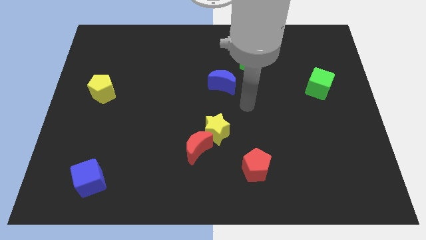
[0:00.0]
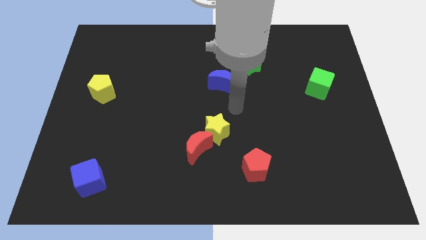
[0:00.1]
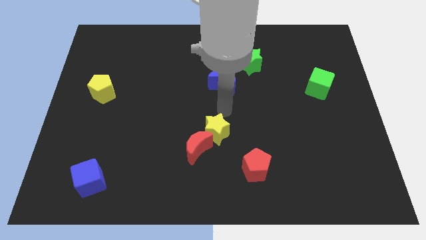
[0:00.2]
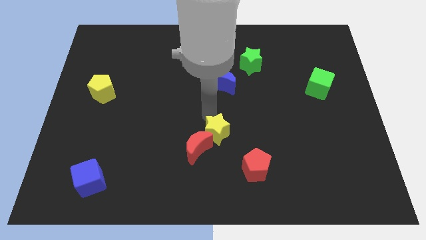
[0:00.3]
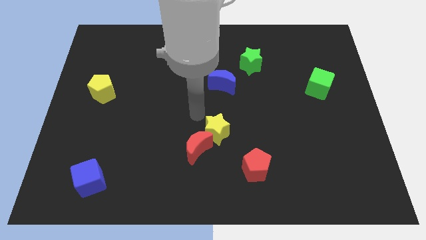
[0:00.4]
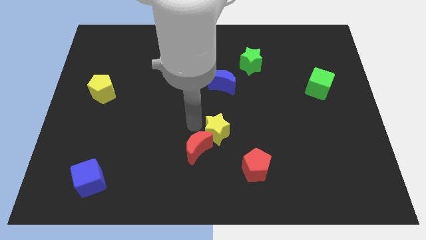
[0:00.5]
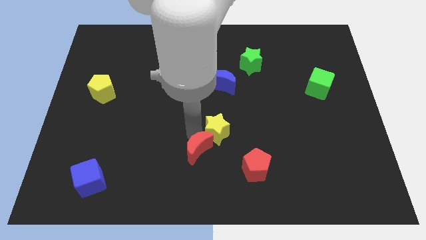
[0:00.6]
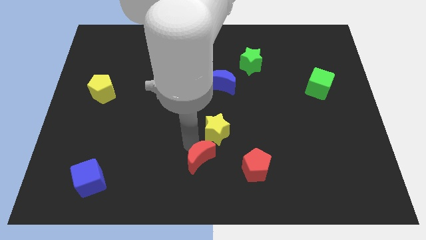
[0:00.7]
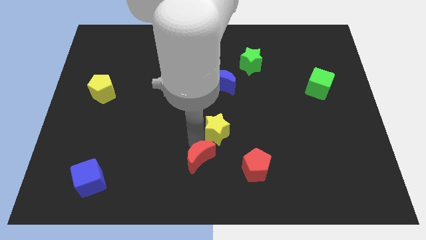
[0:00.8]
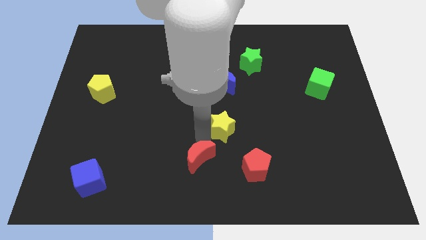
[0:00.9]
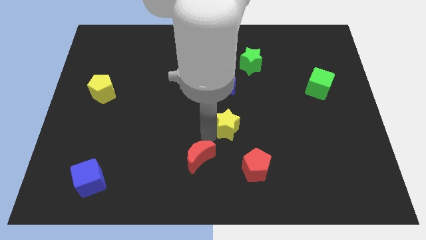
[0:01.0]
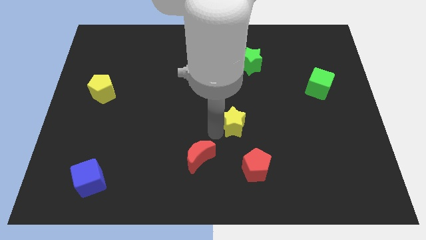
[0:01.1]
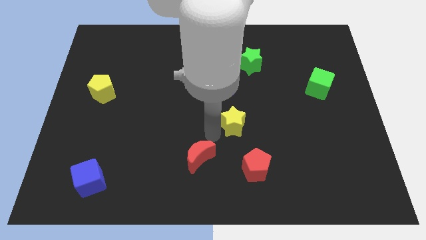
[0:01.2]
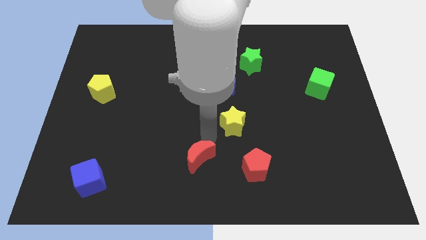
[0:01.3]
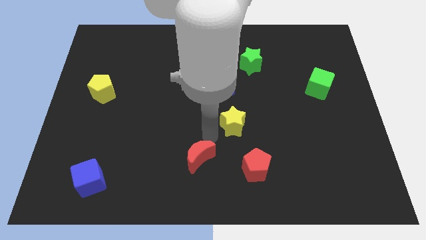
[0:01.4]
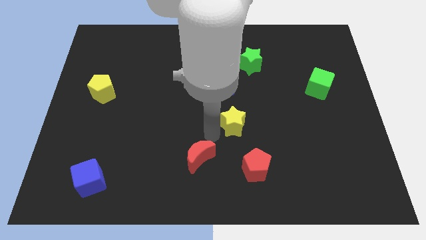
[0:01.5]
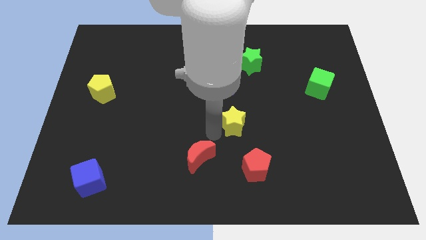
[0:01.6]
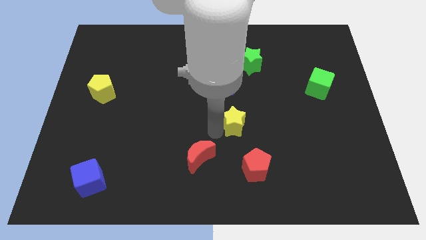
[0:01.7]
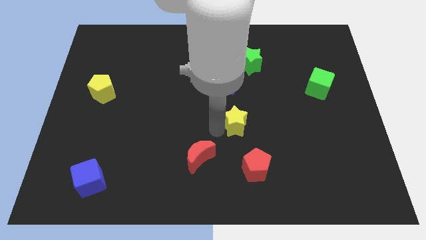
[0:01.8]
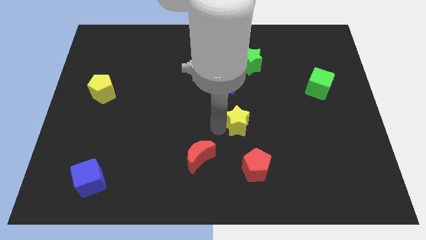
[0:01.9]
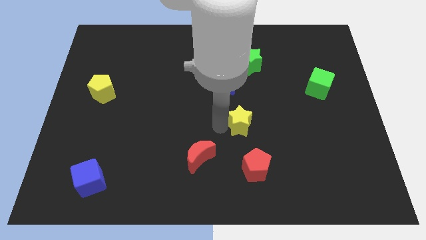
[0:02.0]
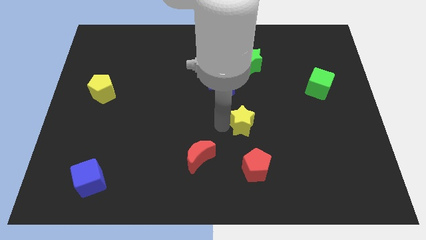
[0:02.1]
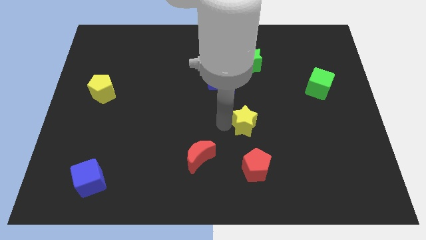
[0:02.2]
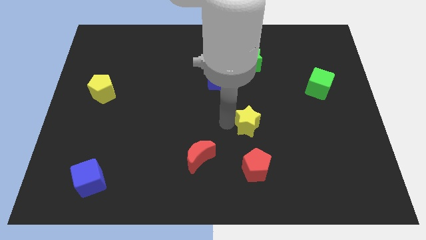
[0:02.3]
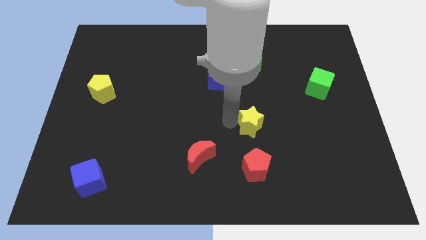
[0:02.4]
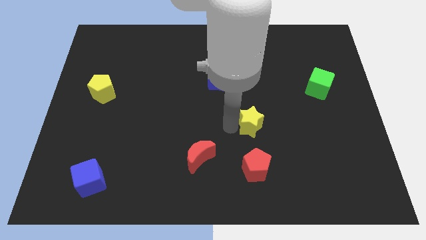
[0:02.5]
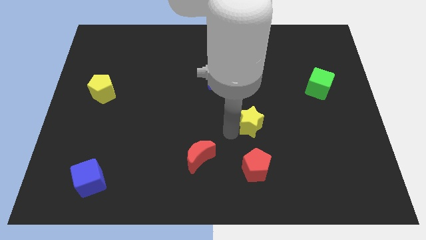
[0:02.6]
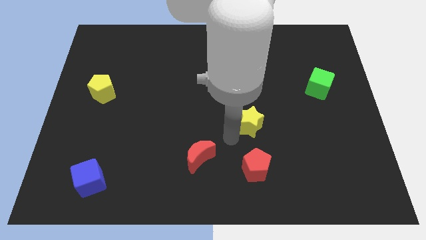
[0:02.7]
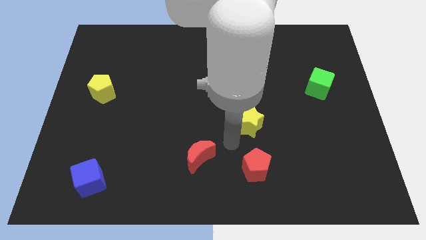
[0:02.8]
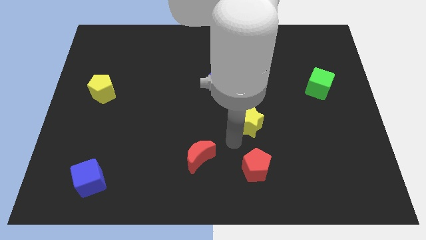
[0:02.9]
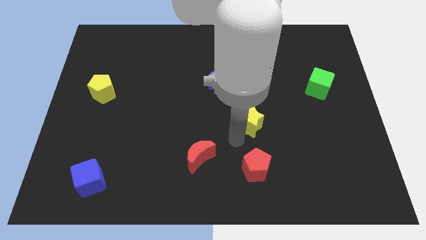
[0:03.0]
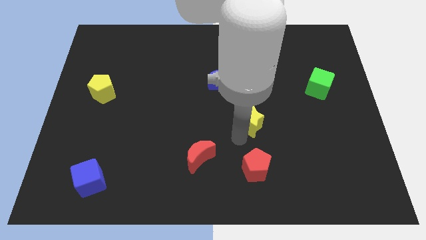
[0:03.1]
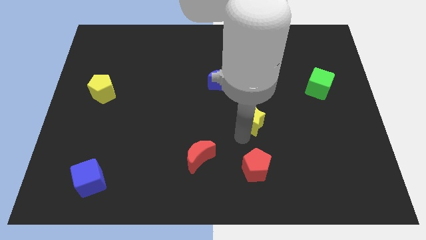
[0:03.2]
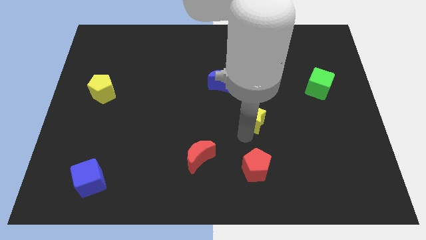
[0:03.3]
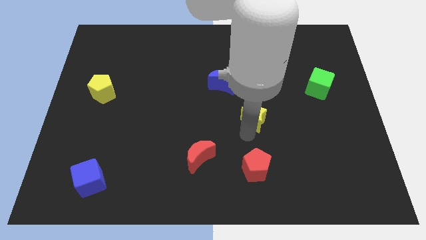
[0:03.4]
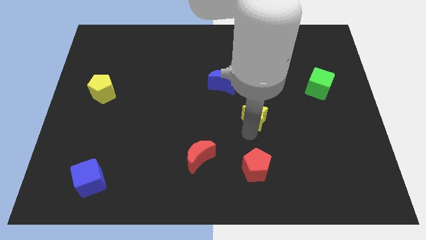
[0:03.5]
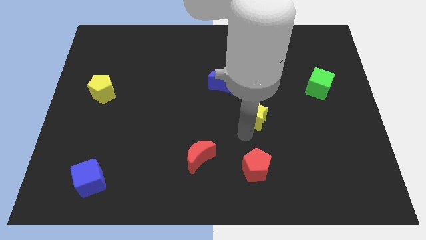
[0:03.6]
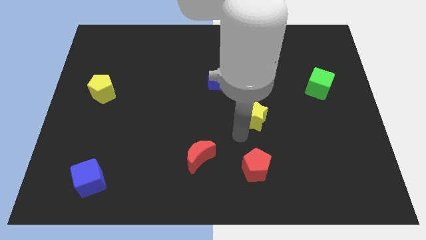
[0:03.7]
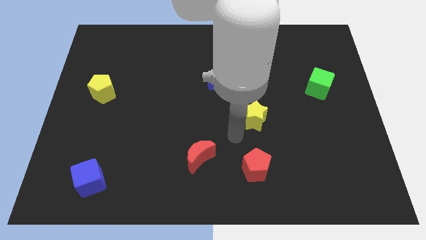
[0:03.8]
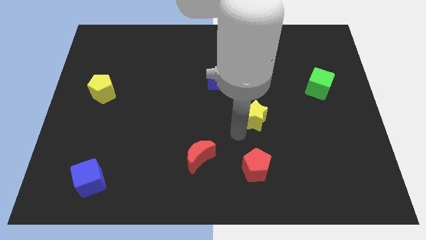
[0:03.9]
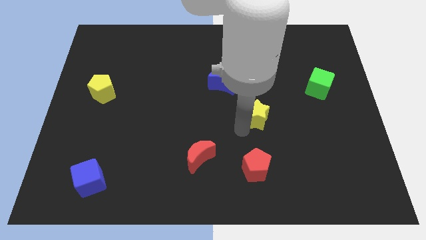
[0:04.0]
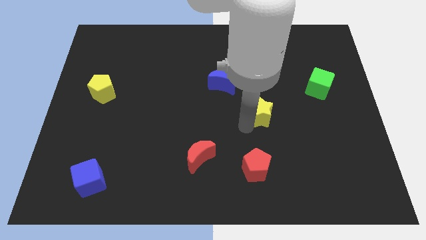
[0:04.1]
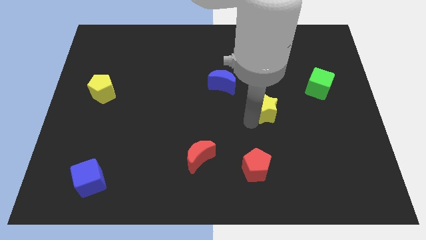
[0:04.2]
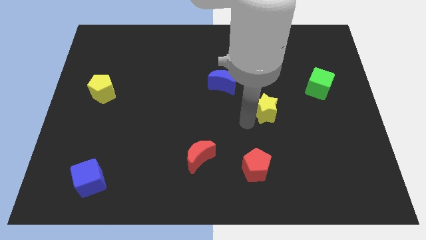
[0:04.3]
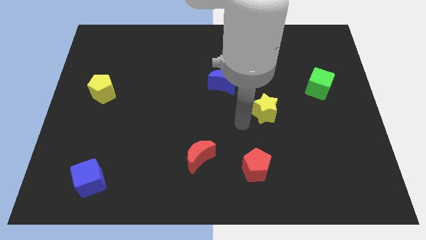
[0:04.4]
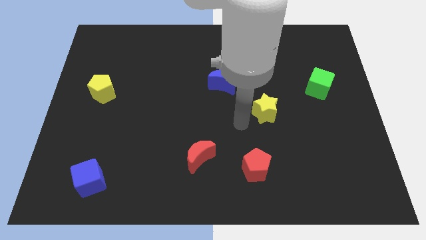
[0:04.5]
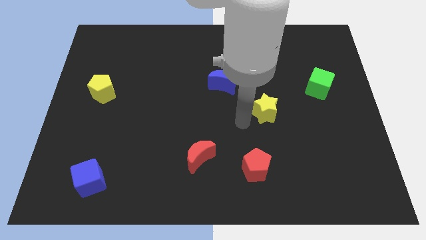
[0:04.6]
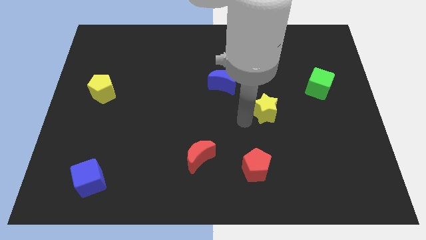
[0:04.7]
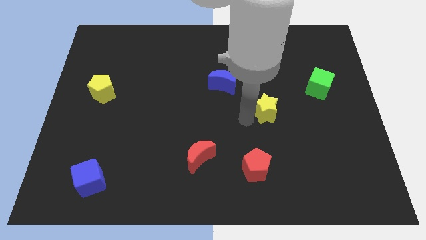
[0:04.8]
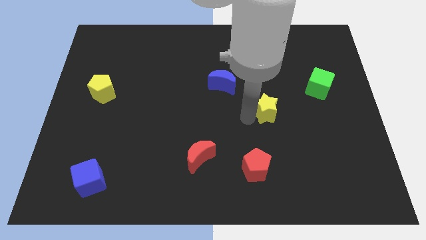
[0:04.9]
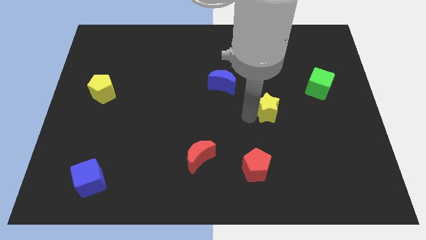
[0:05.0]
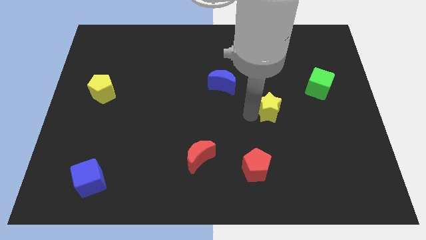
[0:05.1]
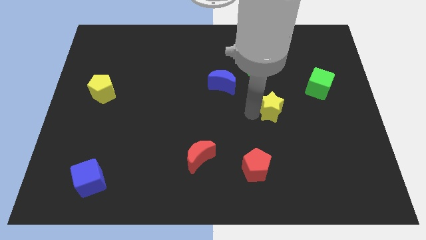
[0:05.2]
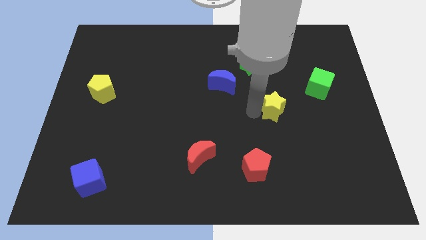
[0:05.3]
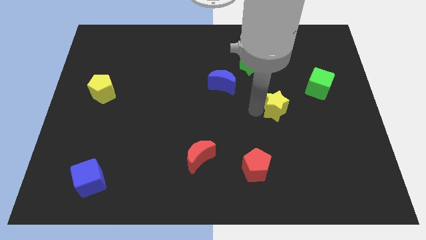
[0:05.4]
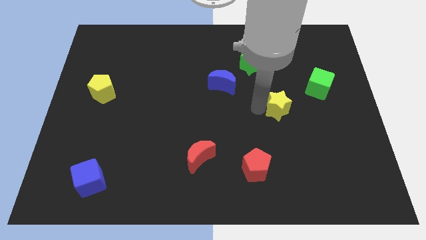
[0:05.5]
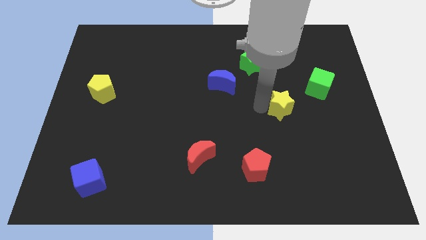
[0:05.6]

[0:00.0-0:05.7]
push the yellow star to the bottom left side of the green cube

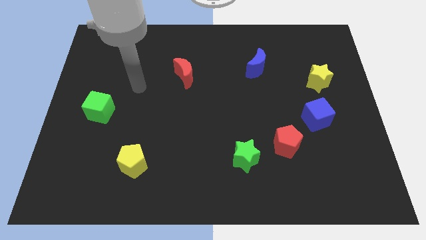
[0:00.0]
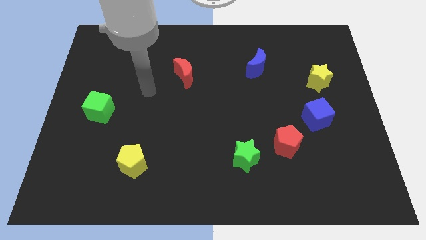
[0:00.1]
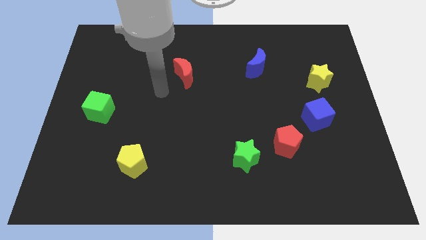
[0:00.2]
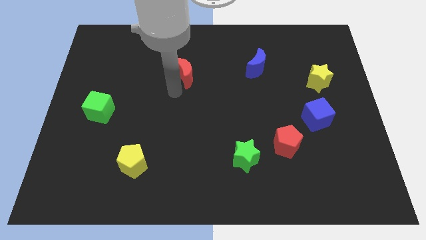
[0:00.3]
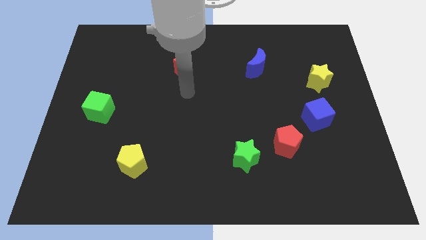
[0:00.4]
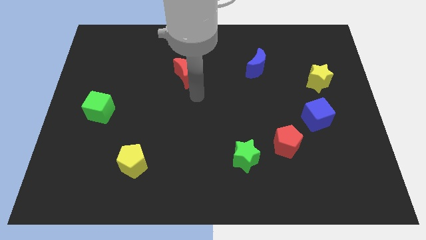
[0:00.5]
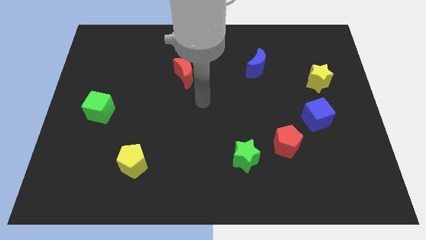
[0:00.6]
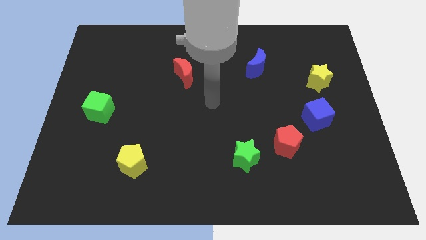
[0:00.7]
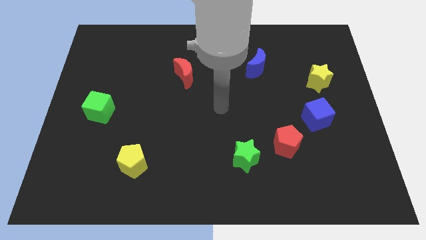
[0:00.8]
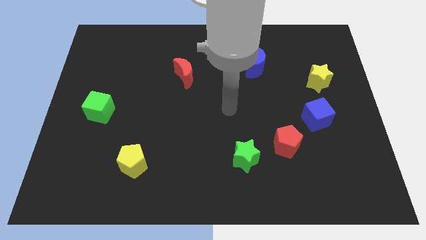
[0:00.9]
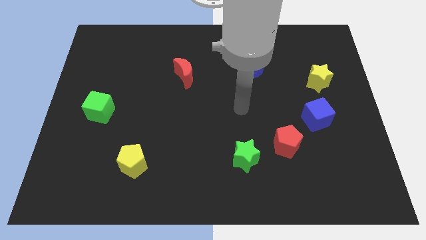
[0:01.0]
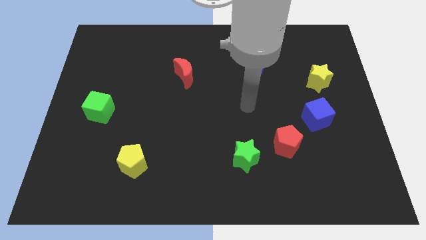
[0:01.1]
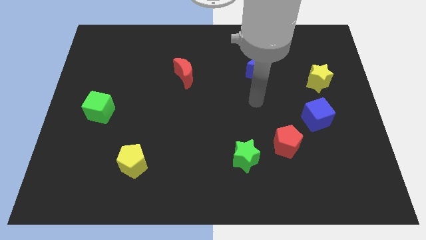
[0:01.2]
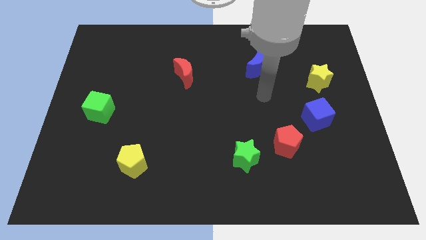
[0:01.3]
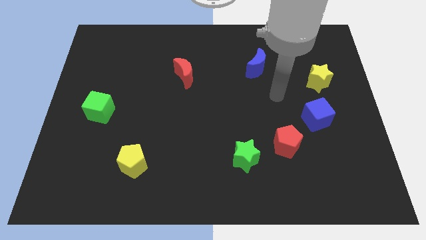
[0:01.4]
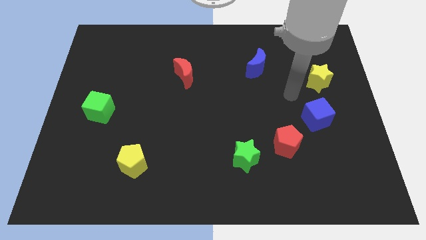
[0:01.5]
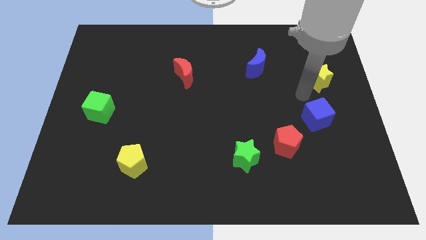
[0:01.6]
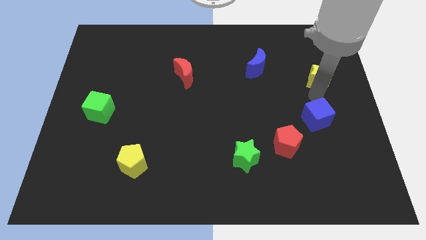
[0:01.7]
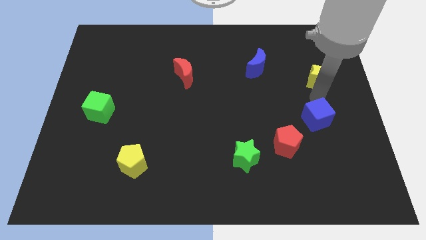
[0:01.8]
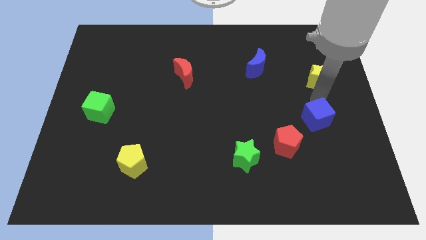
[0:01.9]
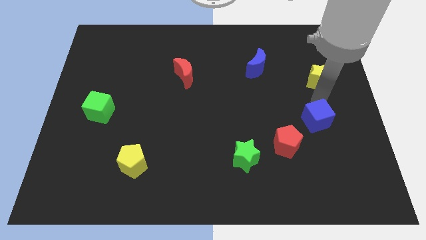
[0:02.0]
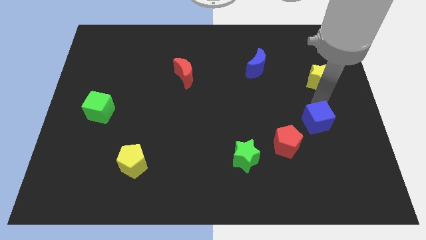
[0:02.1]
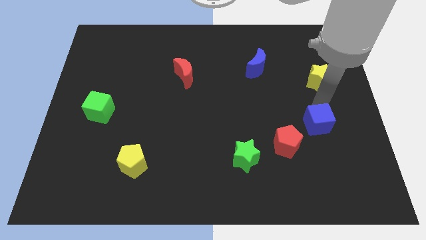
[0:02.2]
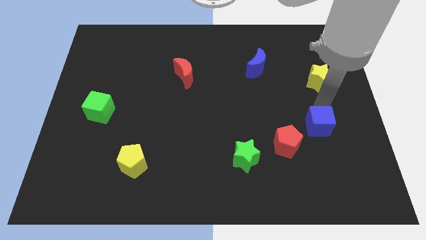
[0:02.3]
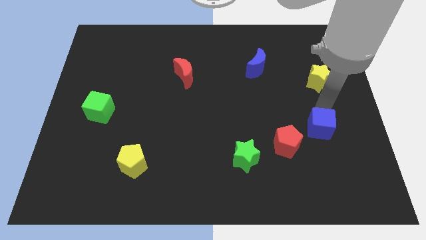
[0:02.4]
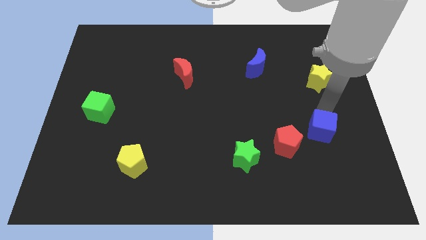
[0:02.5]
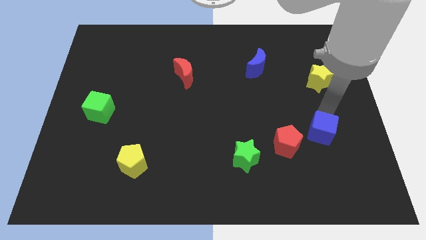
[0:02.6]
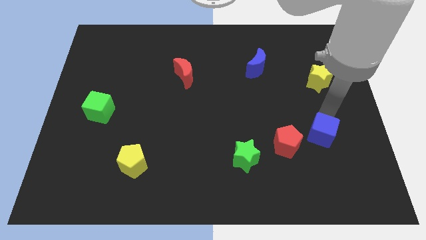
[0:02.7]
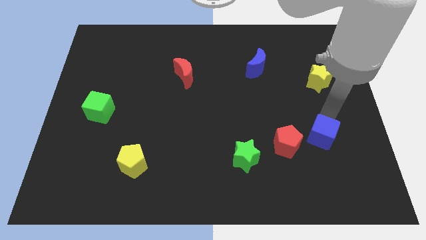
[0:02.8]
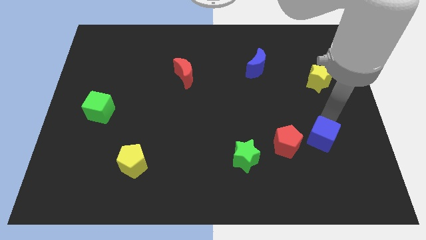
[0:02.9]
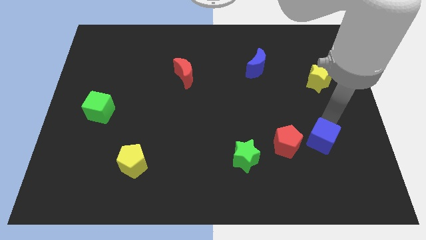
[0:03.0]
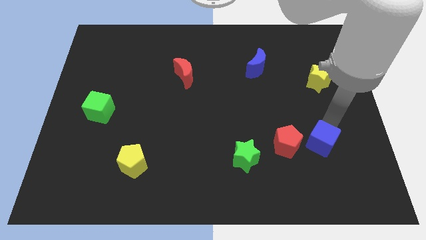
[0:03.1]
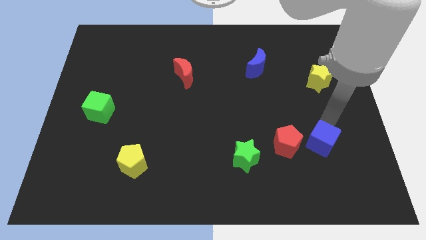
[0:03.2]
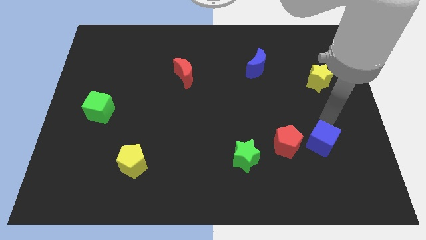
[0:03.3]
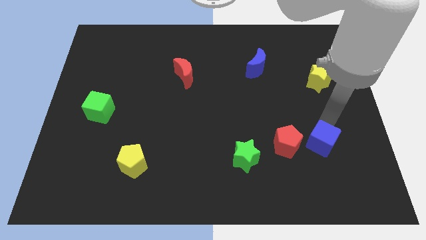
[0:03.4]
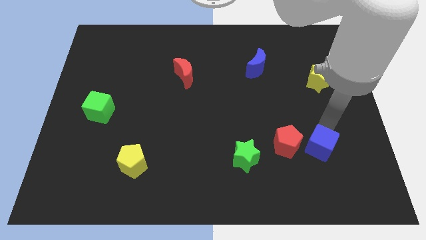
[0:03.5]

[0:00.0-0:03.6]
push the blue cube to the bottom right side of the red pentagon
